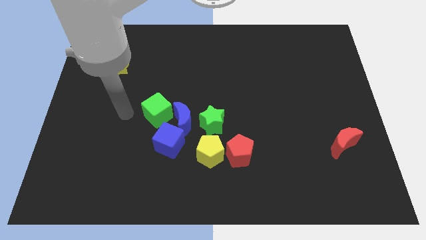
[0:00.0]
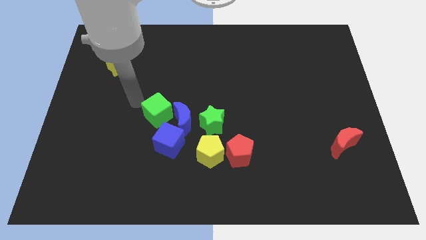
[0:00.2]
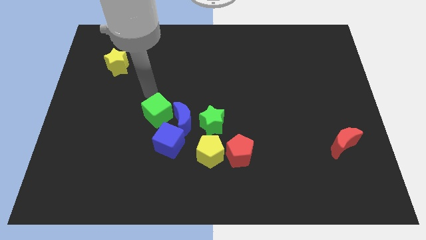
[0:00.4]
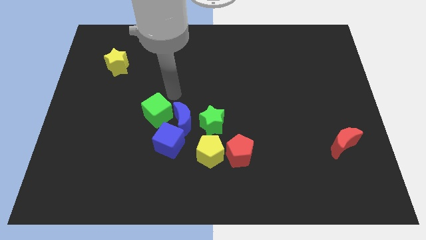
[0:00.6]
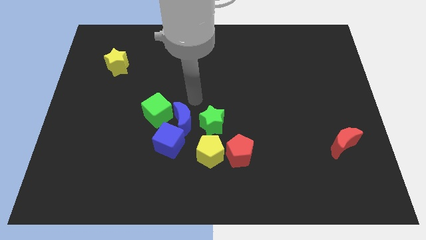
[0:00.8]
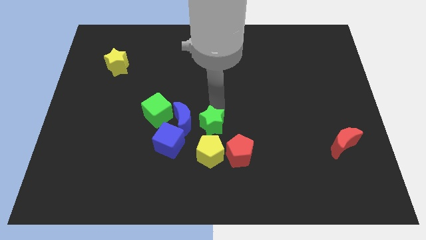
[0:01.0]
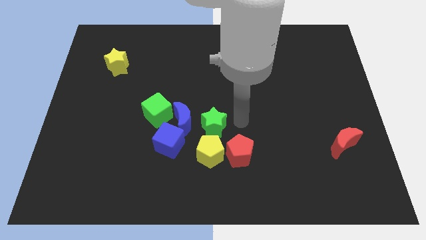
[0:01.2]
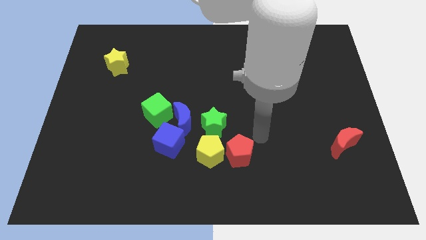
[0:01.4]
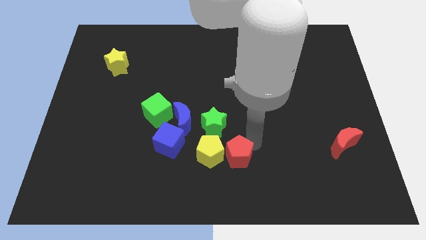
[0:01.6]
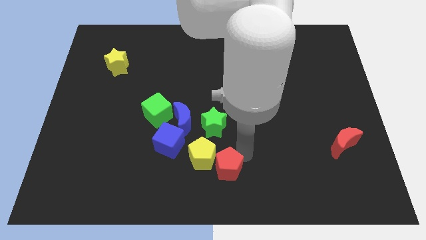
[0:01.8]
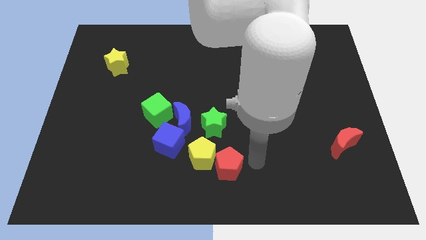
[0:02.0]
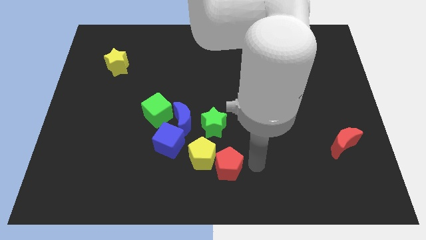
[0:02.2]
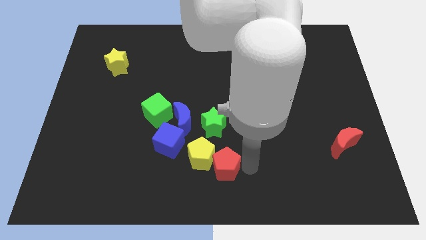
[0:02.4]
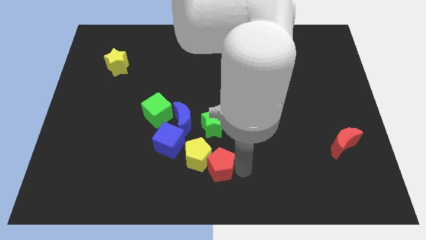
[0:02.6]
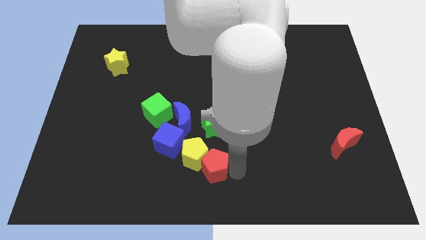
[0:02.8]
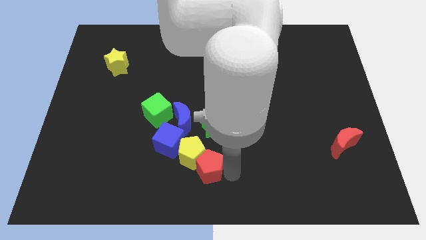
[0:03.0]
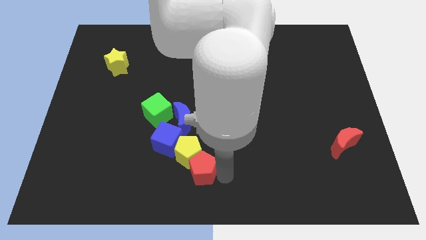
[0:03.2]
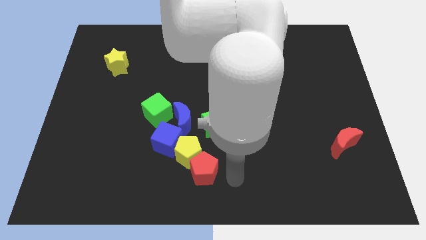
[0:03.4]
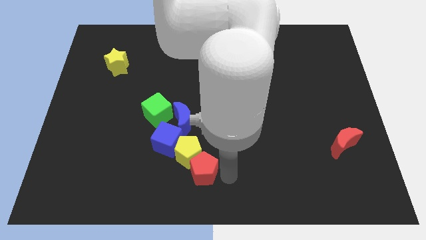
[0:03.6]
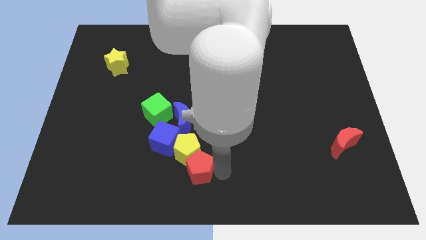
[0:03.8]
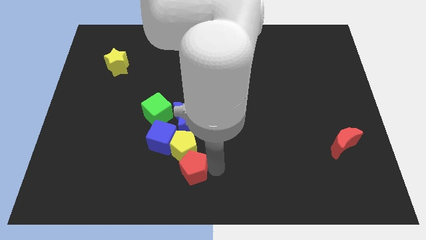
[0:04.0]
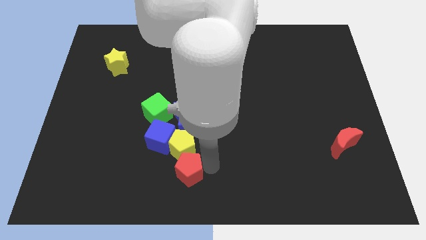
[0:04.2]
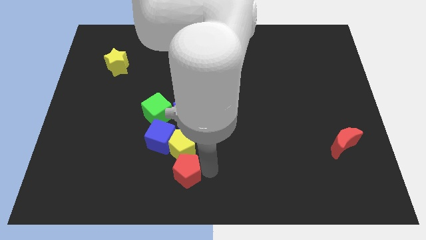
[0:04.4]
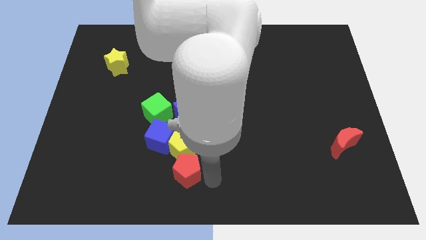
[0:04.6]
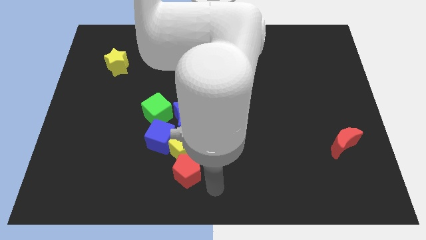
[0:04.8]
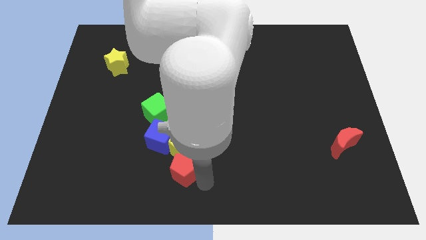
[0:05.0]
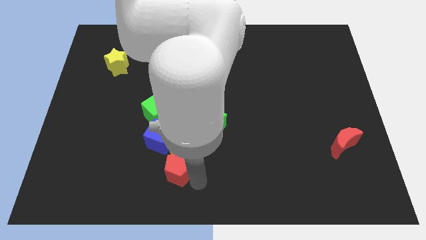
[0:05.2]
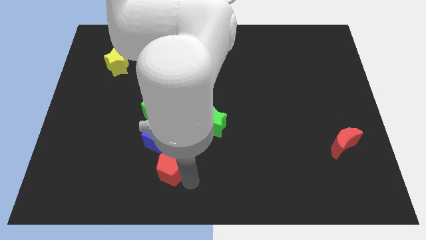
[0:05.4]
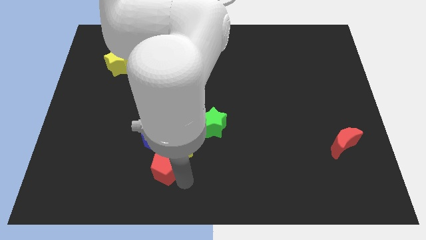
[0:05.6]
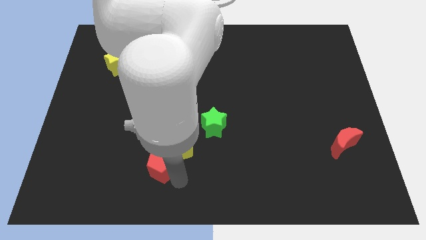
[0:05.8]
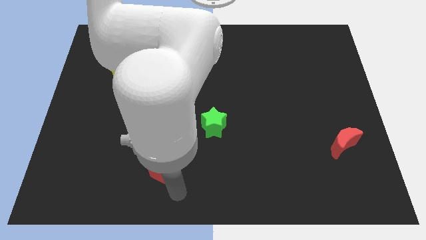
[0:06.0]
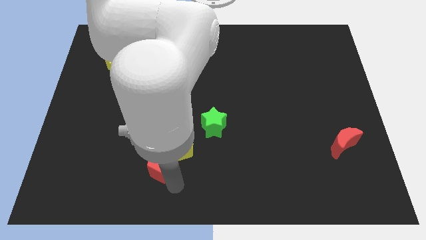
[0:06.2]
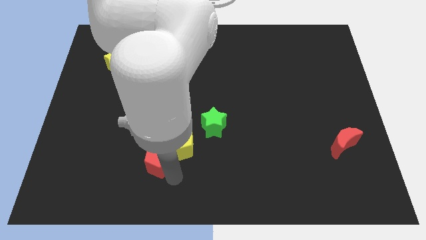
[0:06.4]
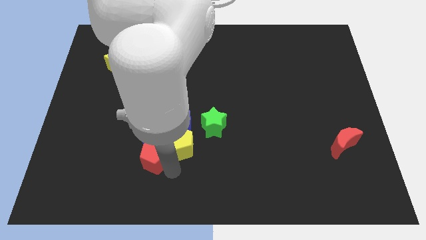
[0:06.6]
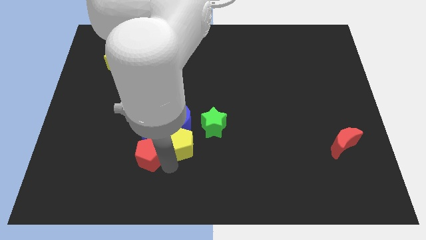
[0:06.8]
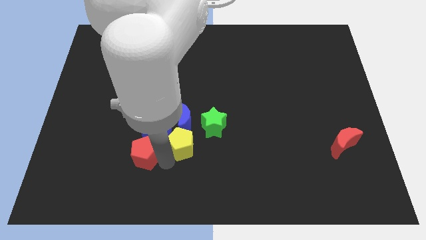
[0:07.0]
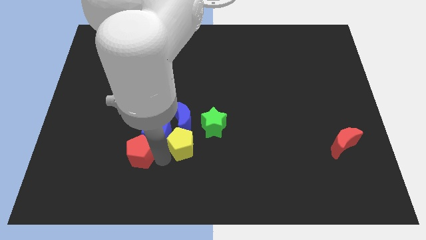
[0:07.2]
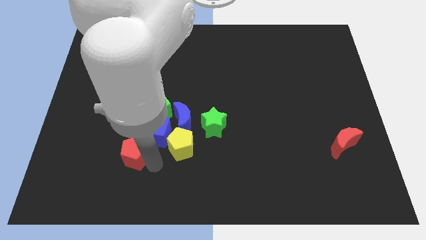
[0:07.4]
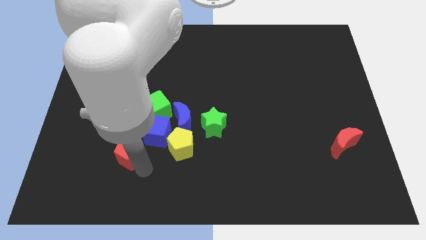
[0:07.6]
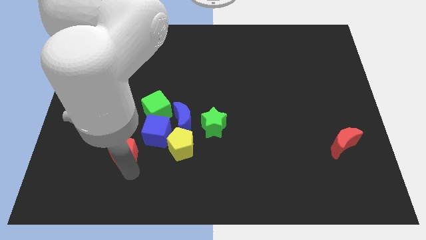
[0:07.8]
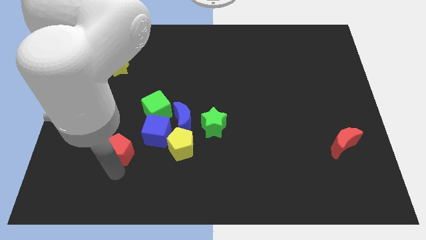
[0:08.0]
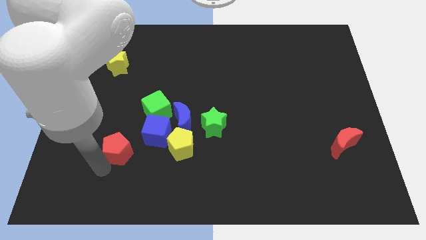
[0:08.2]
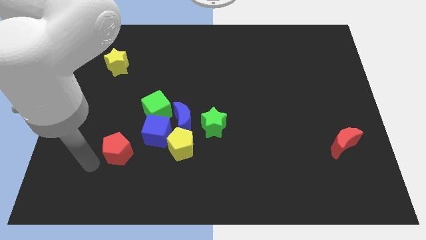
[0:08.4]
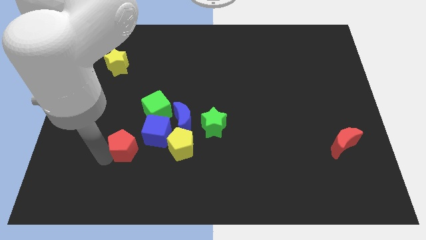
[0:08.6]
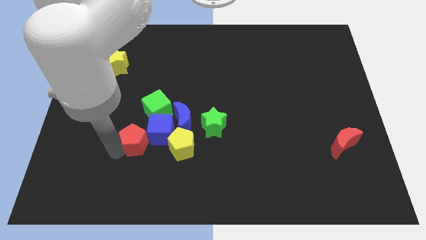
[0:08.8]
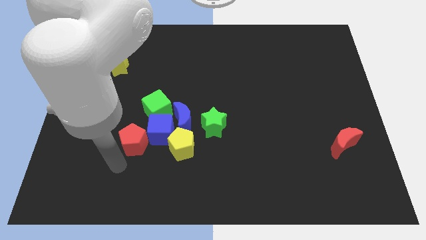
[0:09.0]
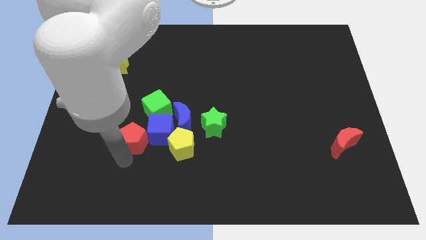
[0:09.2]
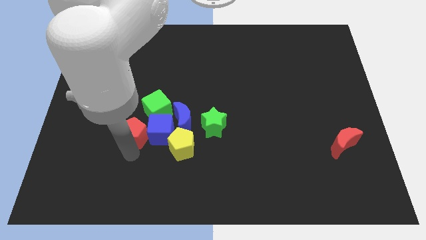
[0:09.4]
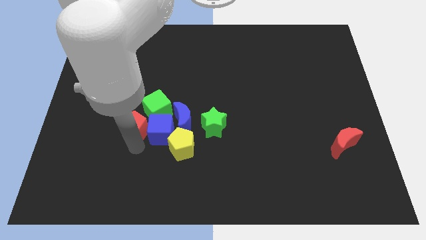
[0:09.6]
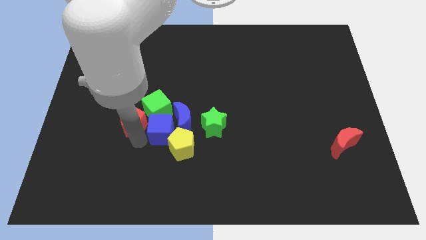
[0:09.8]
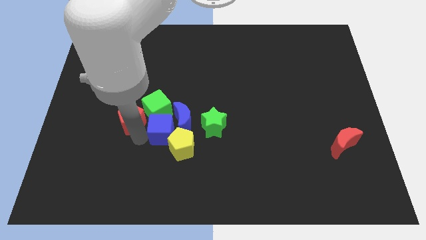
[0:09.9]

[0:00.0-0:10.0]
put the red pentagon to the green cube

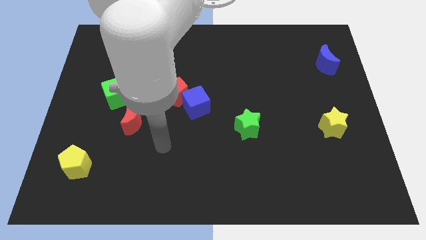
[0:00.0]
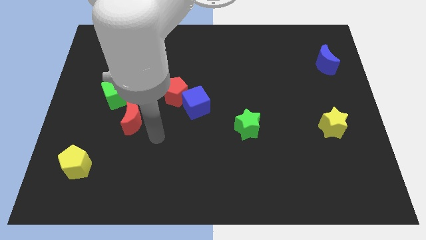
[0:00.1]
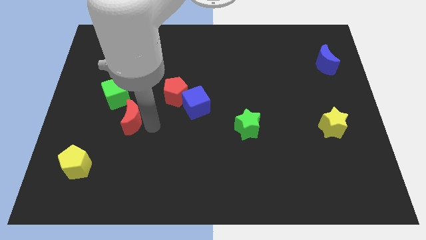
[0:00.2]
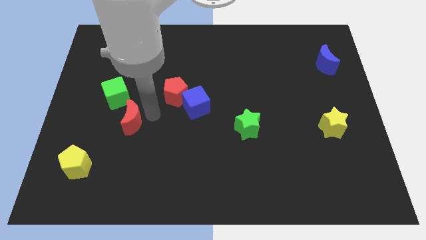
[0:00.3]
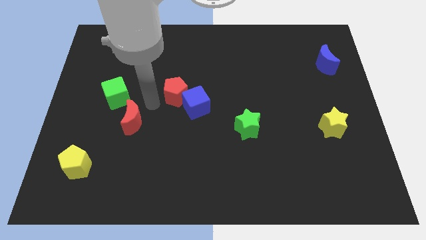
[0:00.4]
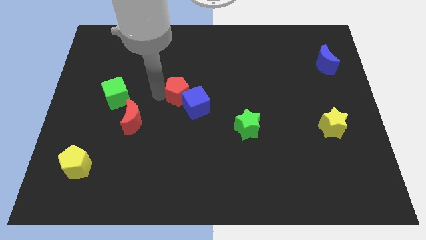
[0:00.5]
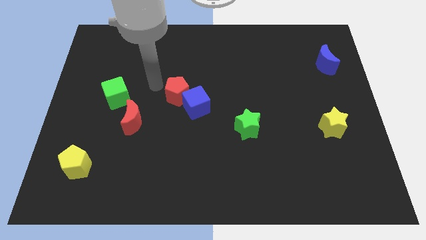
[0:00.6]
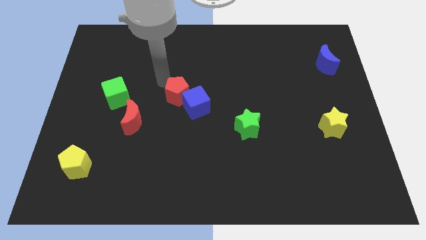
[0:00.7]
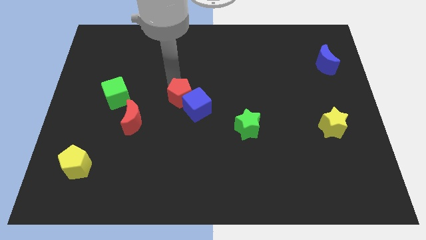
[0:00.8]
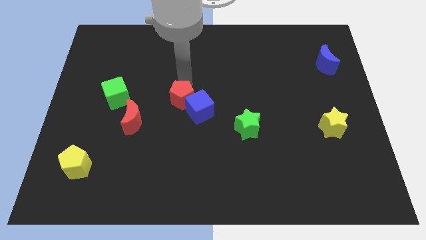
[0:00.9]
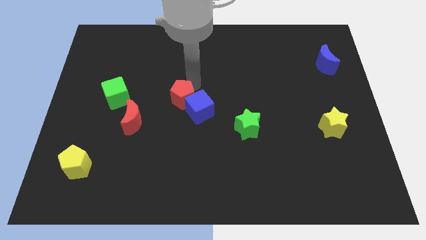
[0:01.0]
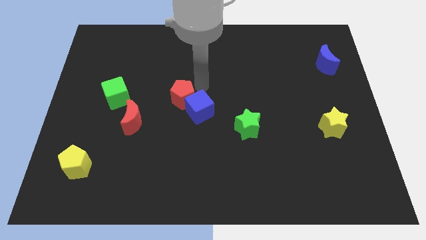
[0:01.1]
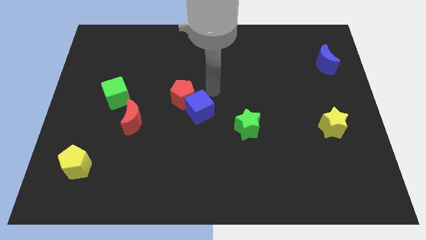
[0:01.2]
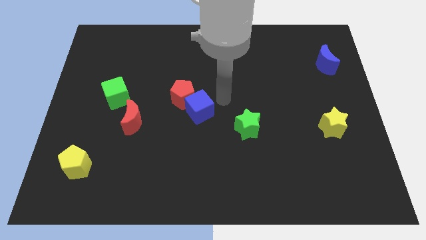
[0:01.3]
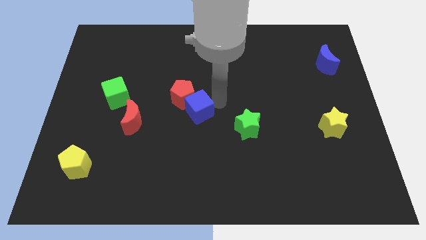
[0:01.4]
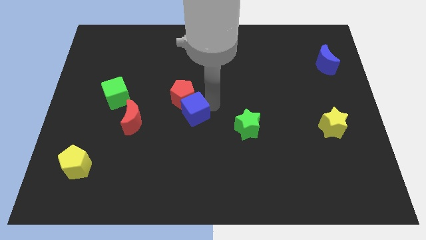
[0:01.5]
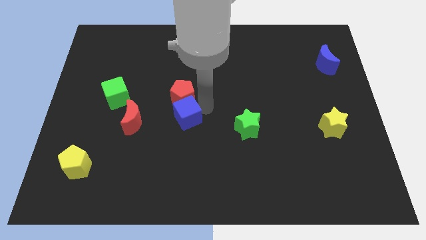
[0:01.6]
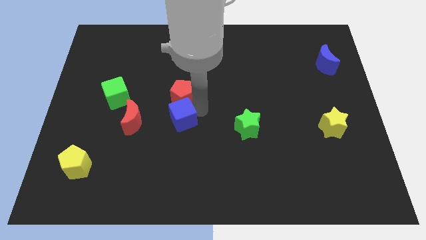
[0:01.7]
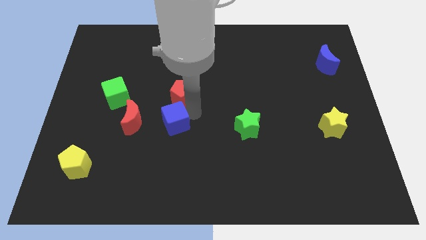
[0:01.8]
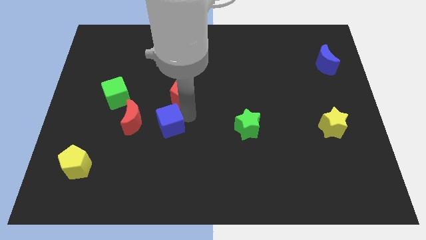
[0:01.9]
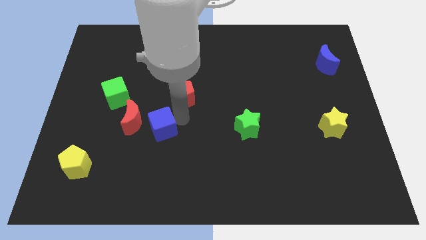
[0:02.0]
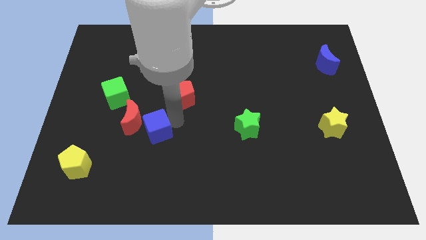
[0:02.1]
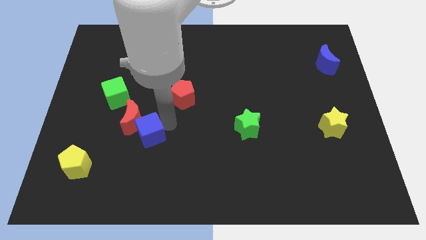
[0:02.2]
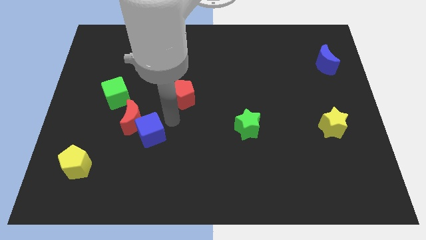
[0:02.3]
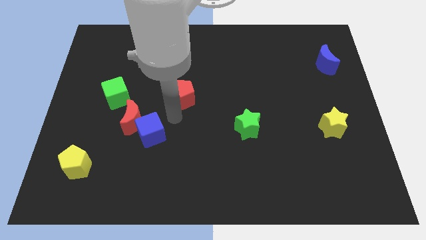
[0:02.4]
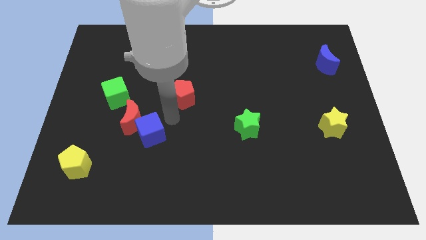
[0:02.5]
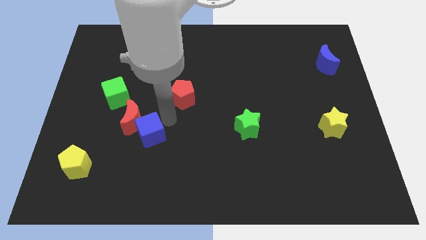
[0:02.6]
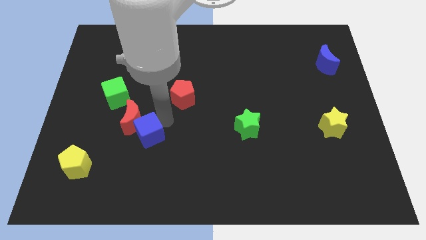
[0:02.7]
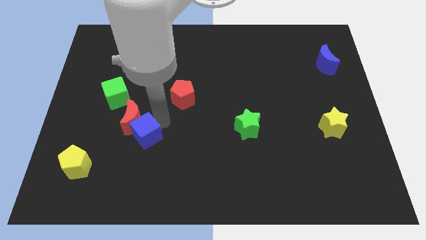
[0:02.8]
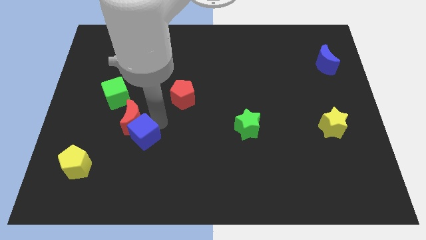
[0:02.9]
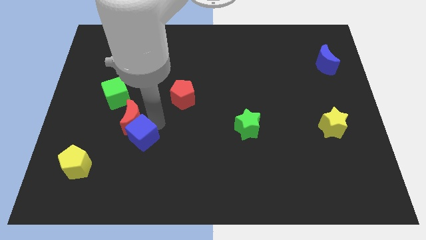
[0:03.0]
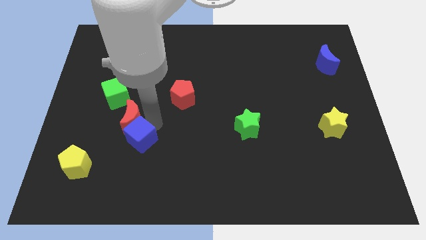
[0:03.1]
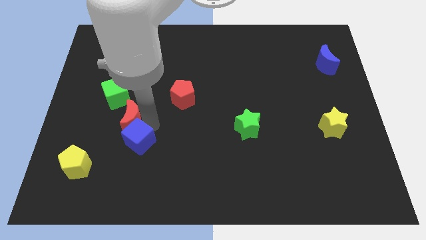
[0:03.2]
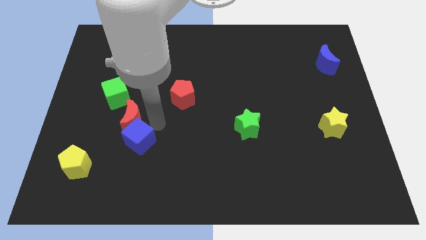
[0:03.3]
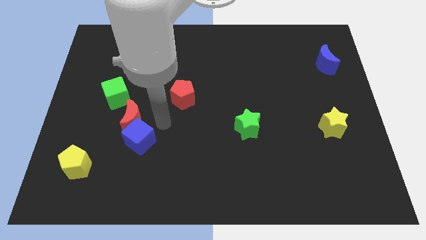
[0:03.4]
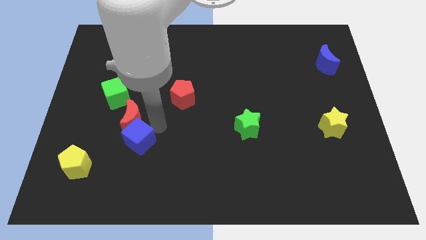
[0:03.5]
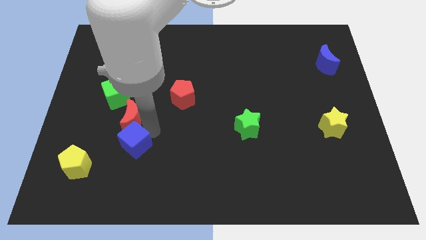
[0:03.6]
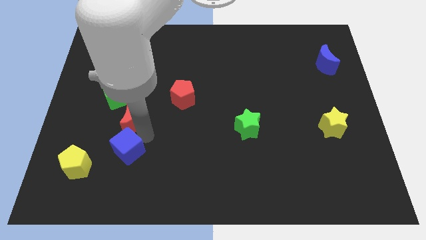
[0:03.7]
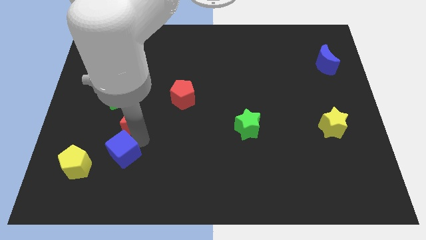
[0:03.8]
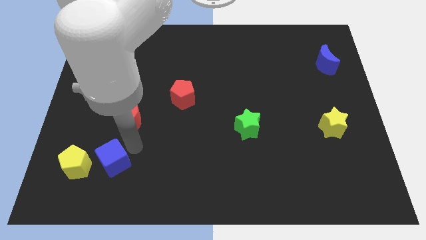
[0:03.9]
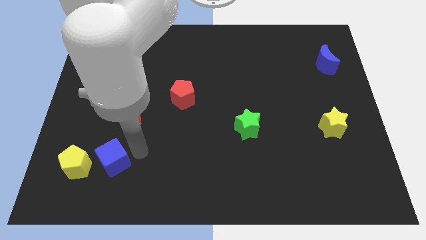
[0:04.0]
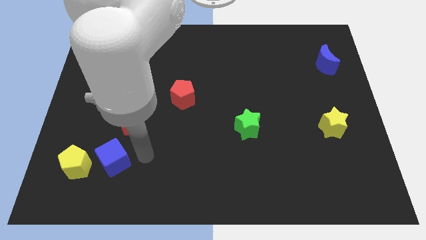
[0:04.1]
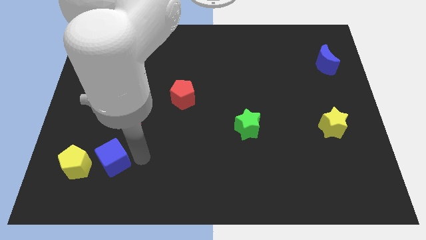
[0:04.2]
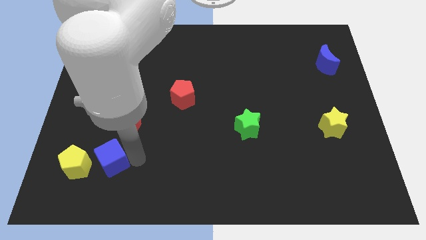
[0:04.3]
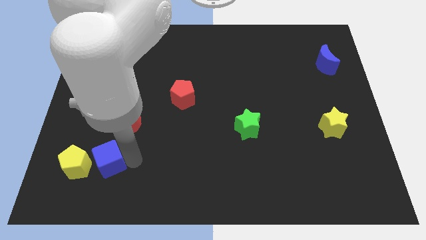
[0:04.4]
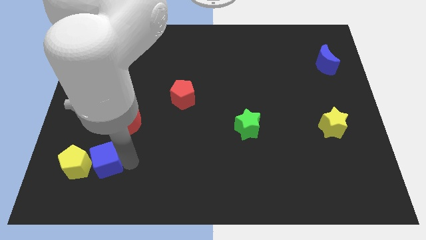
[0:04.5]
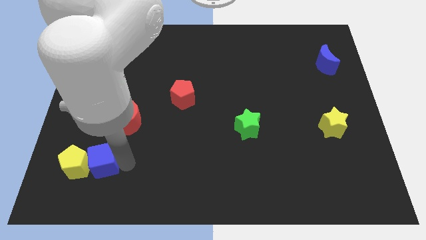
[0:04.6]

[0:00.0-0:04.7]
put the blue cube next to the yellow pentagon
